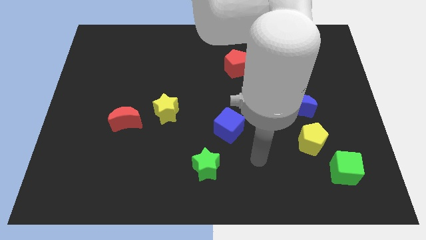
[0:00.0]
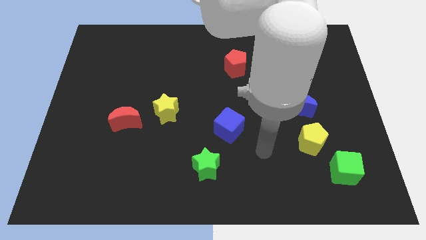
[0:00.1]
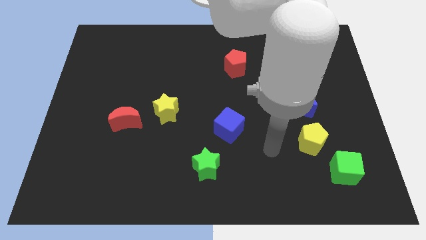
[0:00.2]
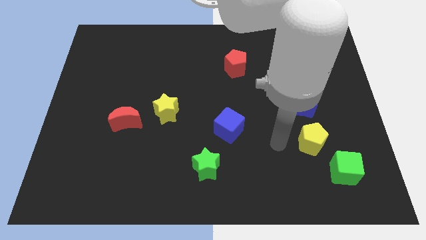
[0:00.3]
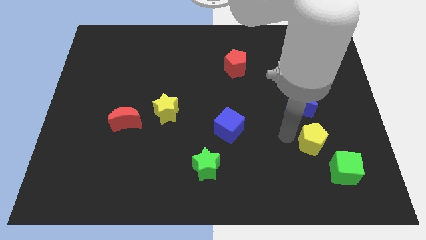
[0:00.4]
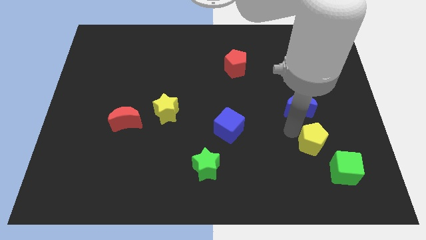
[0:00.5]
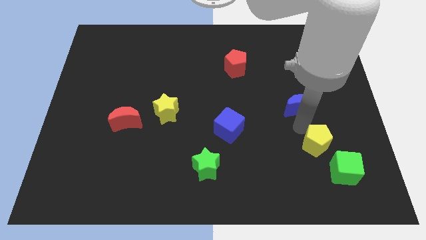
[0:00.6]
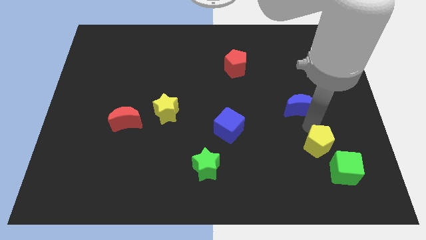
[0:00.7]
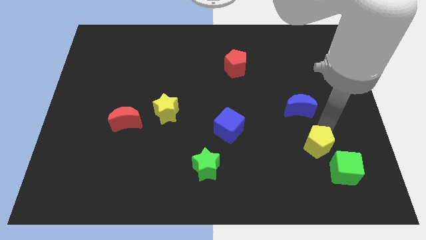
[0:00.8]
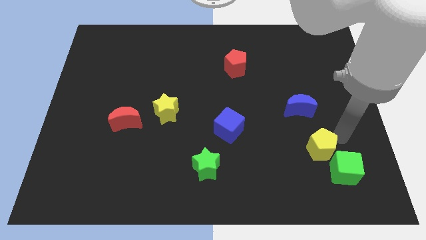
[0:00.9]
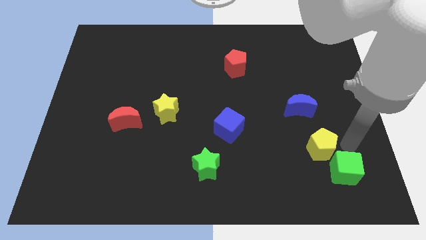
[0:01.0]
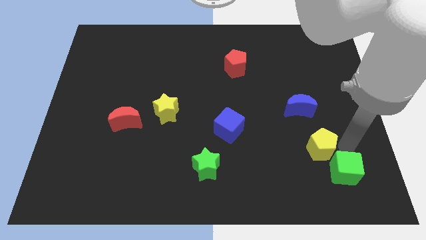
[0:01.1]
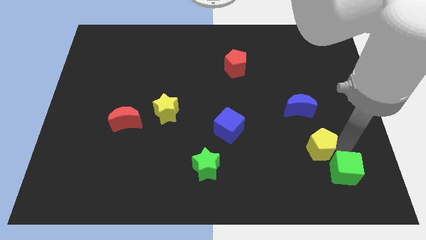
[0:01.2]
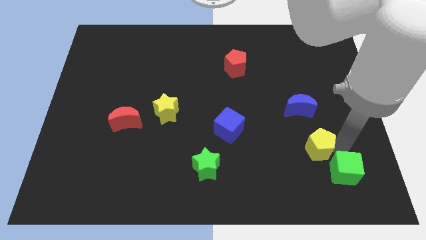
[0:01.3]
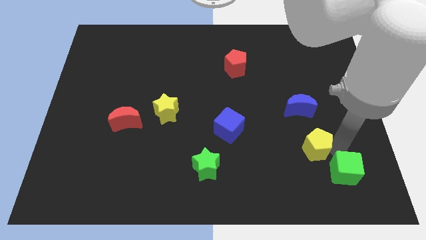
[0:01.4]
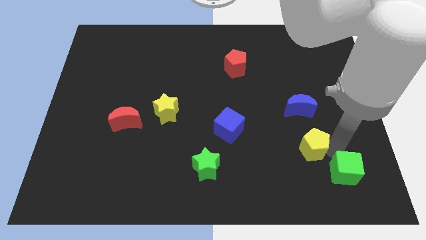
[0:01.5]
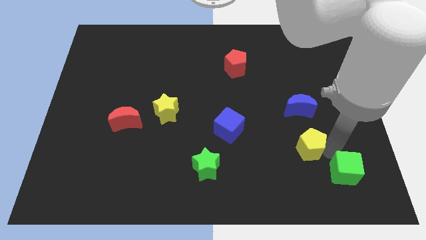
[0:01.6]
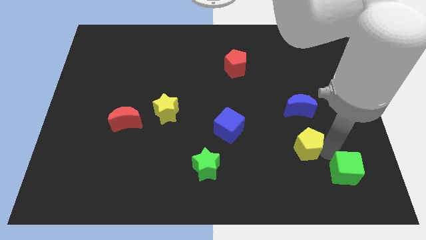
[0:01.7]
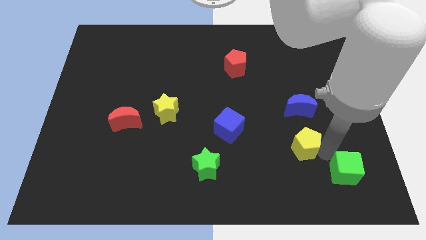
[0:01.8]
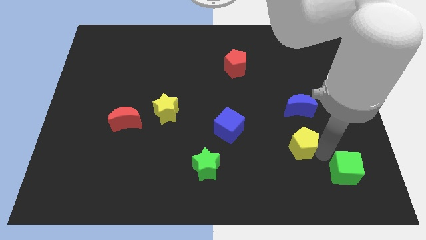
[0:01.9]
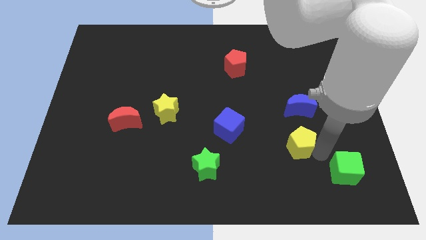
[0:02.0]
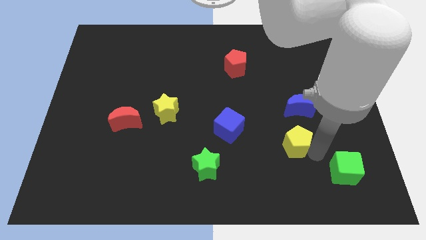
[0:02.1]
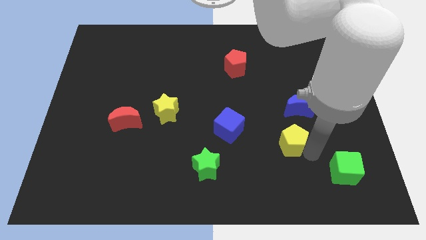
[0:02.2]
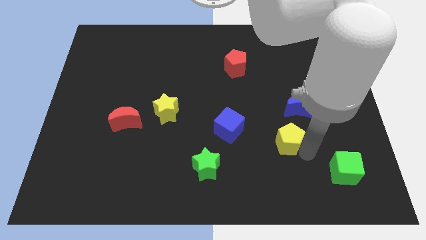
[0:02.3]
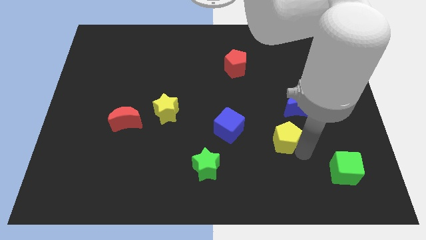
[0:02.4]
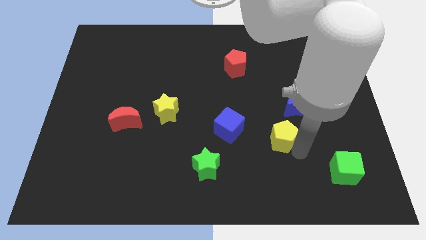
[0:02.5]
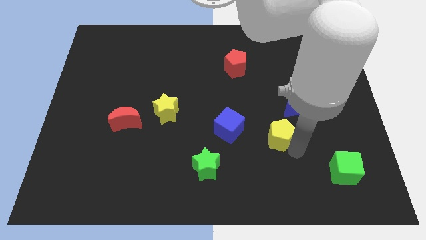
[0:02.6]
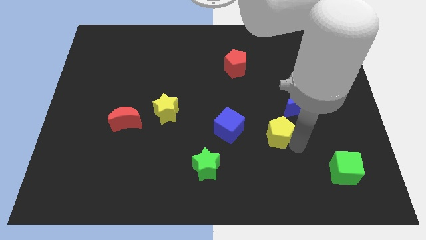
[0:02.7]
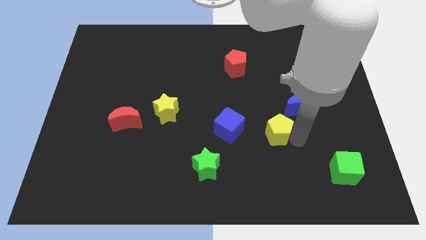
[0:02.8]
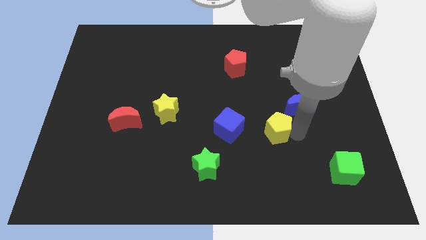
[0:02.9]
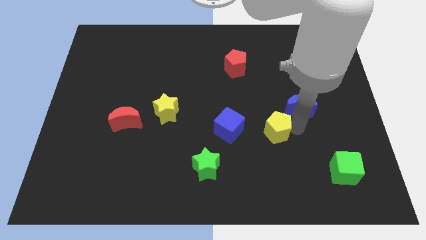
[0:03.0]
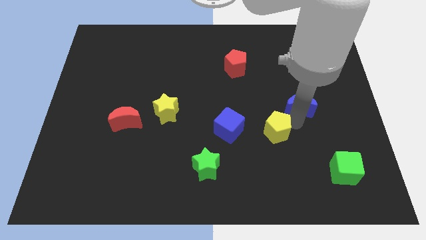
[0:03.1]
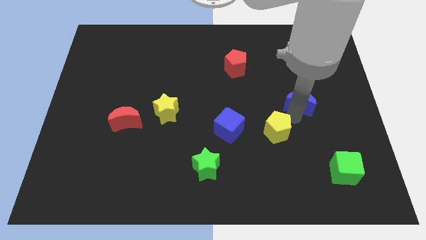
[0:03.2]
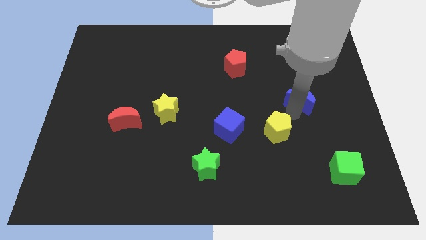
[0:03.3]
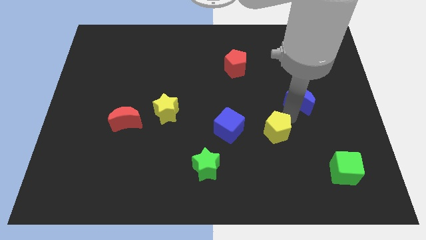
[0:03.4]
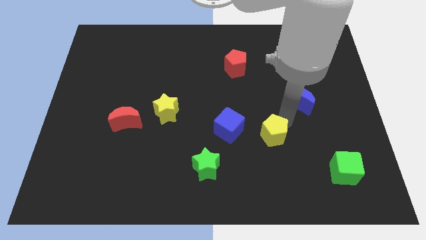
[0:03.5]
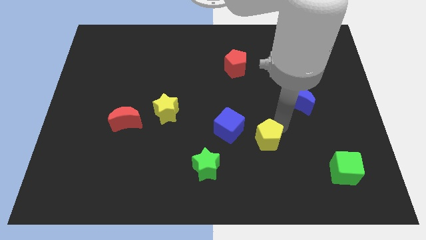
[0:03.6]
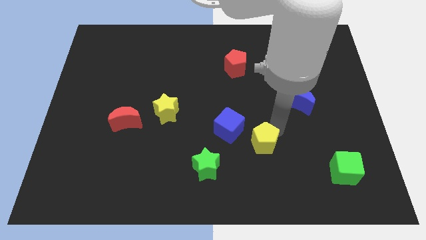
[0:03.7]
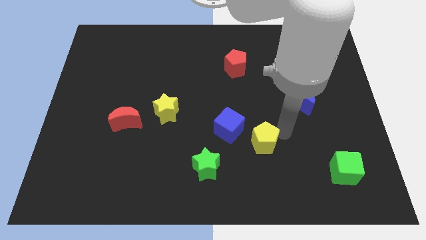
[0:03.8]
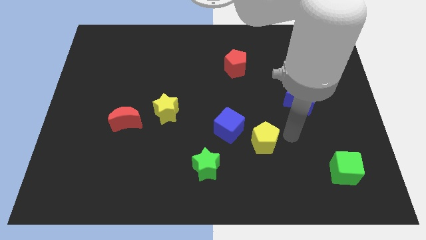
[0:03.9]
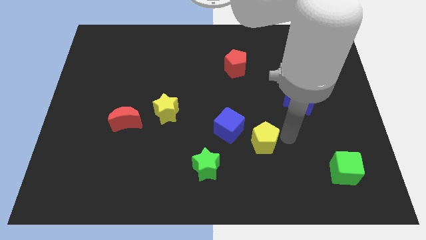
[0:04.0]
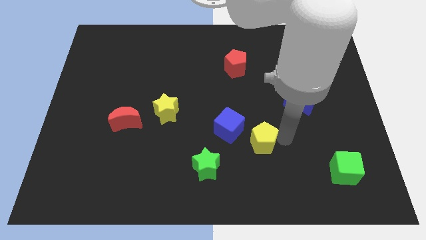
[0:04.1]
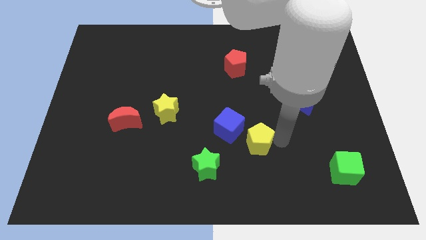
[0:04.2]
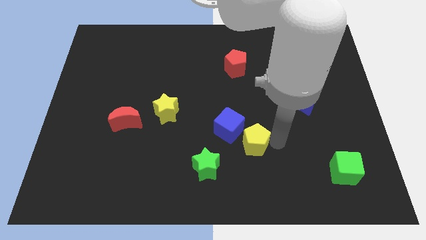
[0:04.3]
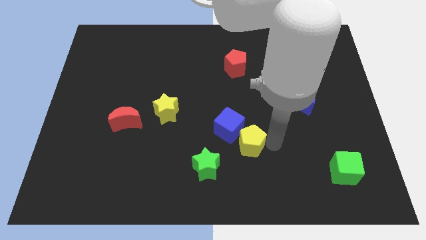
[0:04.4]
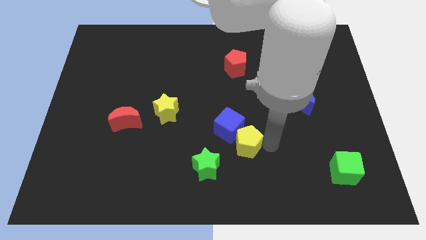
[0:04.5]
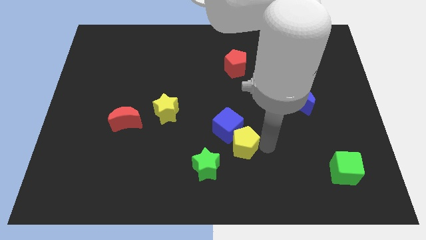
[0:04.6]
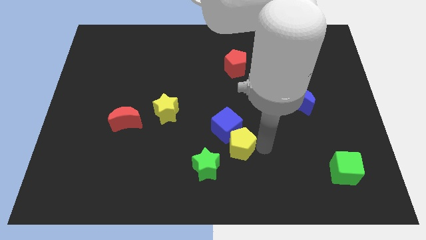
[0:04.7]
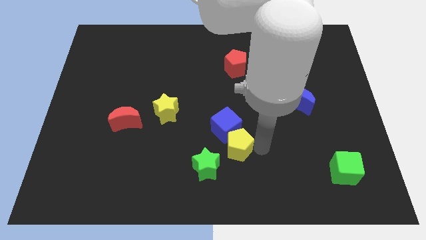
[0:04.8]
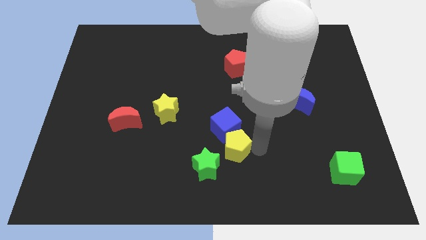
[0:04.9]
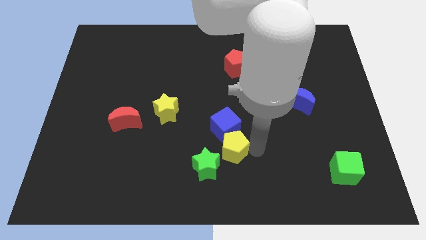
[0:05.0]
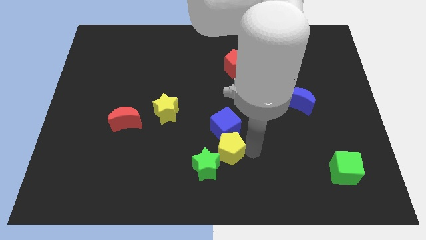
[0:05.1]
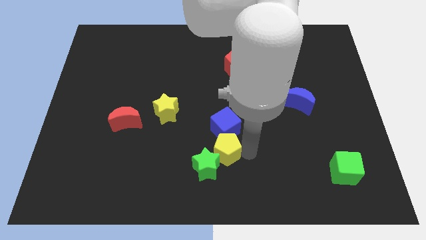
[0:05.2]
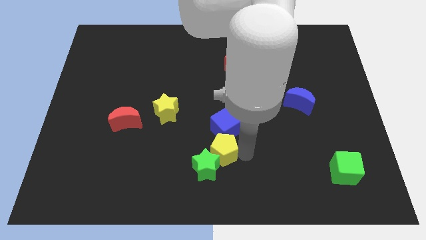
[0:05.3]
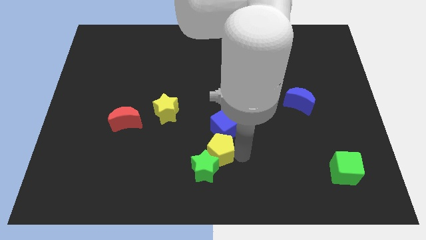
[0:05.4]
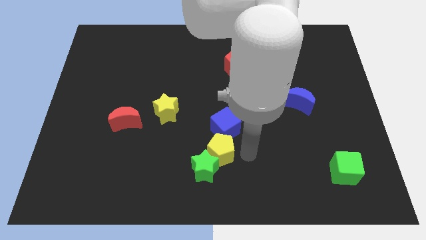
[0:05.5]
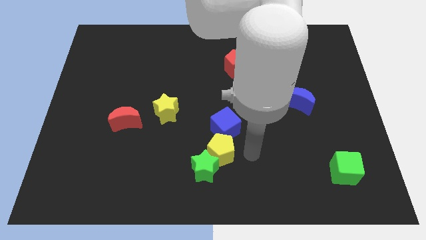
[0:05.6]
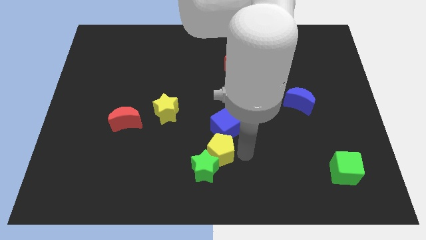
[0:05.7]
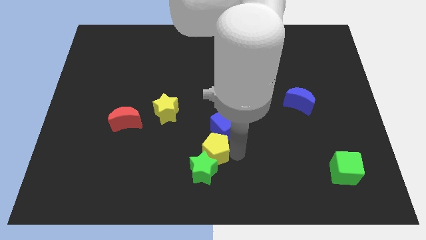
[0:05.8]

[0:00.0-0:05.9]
slide the yellow pentagon to the left

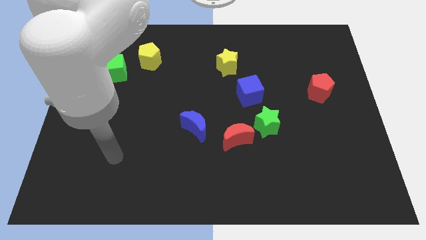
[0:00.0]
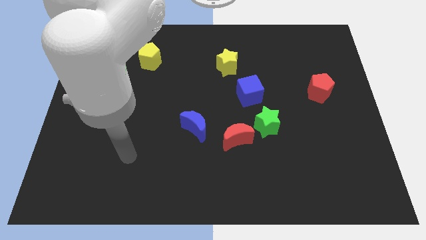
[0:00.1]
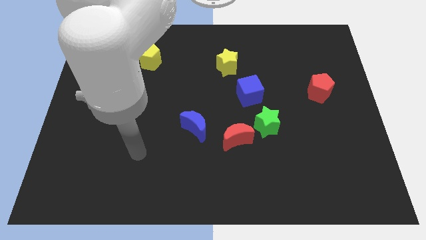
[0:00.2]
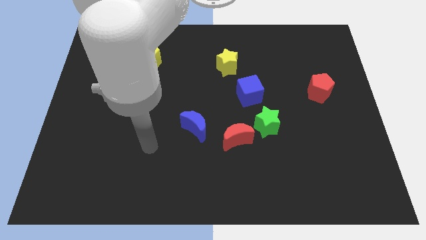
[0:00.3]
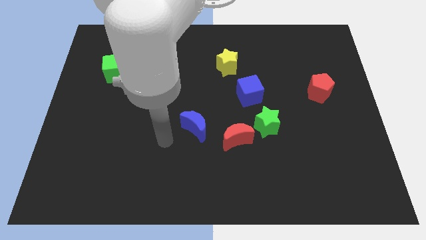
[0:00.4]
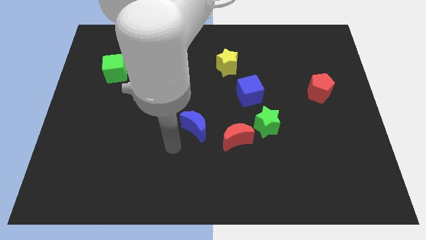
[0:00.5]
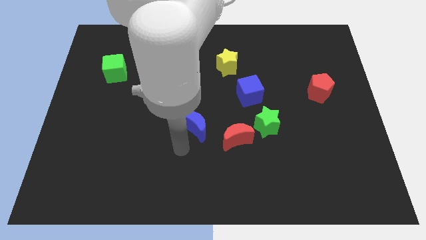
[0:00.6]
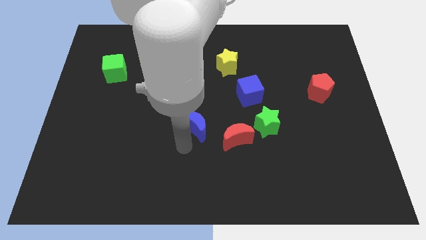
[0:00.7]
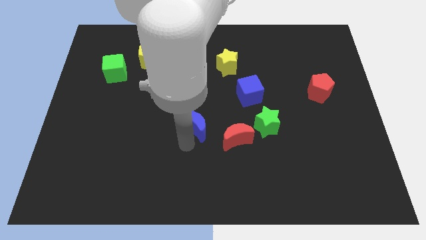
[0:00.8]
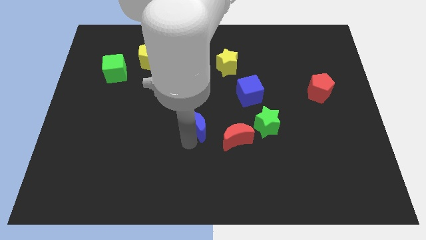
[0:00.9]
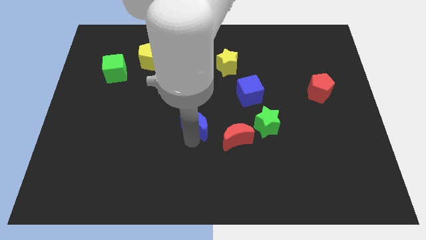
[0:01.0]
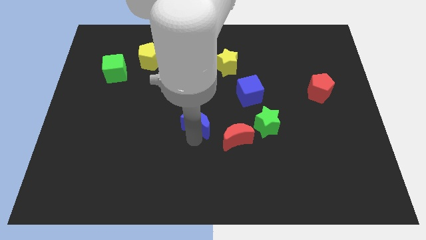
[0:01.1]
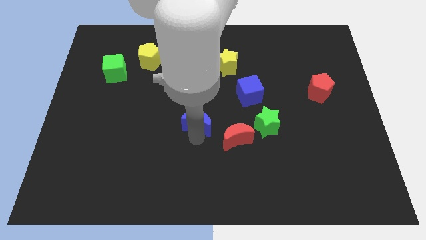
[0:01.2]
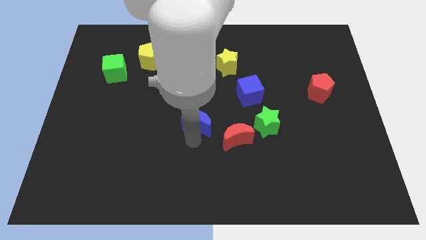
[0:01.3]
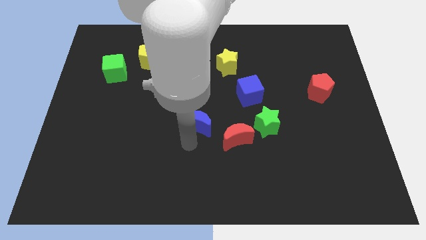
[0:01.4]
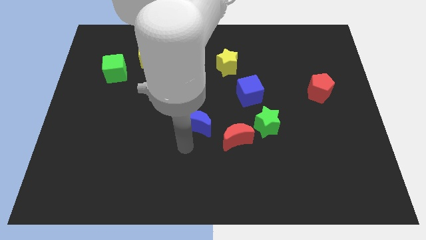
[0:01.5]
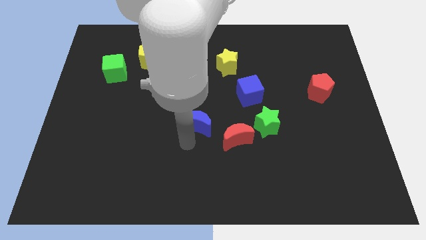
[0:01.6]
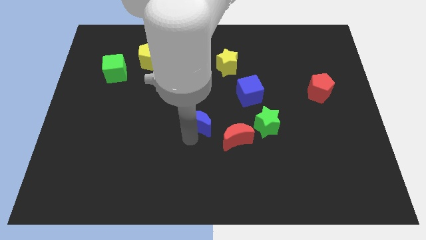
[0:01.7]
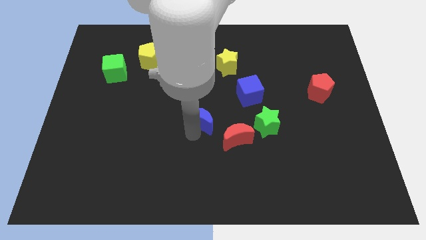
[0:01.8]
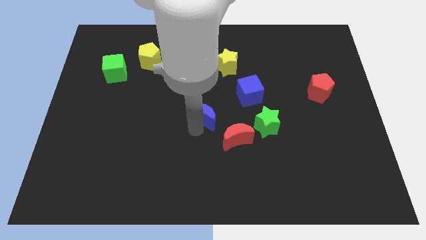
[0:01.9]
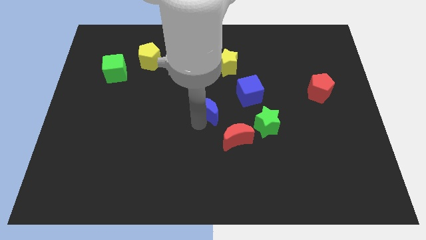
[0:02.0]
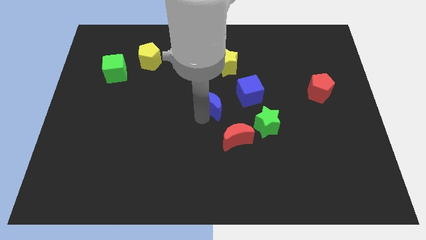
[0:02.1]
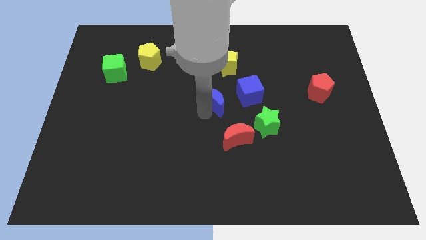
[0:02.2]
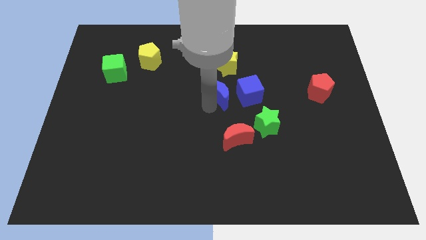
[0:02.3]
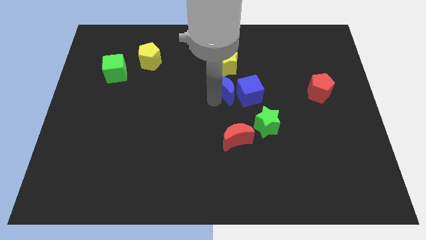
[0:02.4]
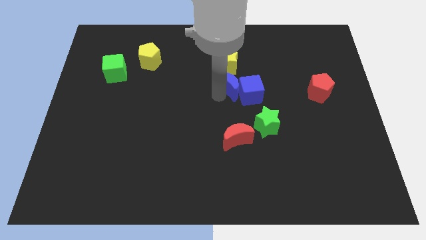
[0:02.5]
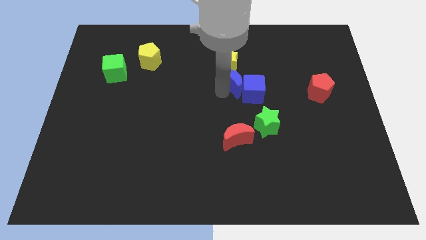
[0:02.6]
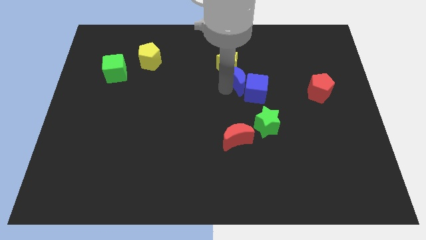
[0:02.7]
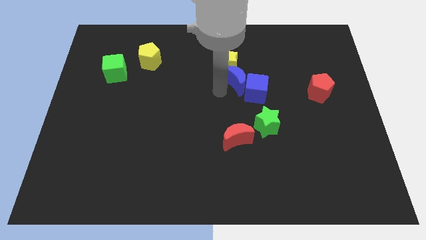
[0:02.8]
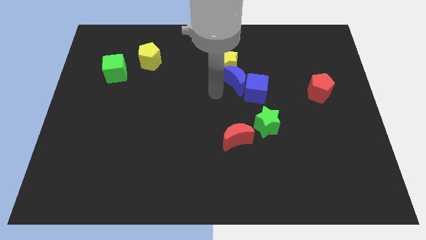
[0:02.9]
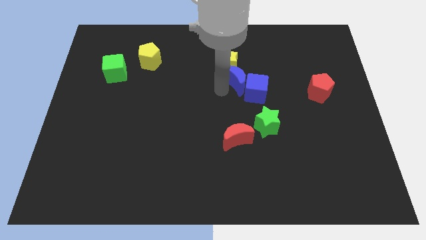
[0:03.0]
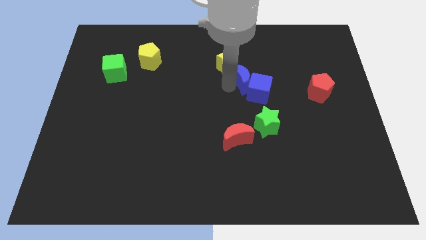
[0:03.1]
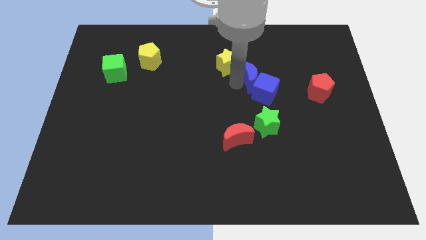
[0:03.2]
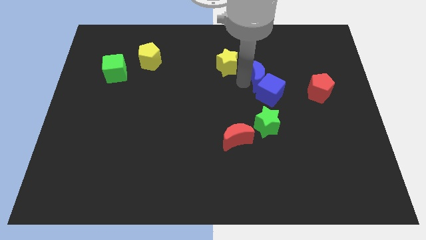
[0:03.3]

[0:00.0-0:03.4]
slide the blue moon diagonally upwards and to the right
